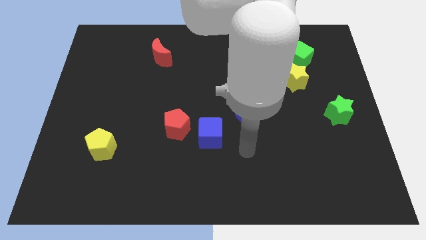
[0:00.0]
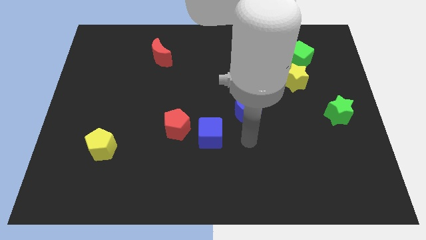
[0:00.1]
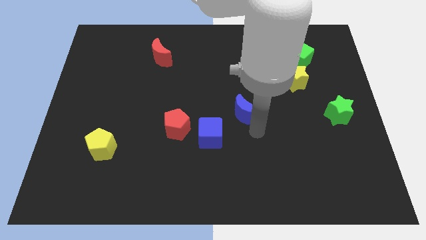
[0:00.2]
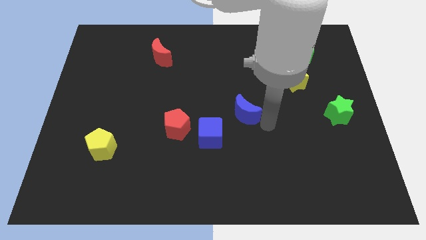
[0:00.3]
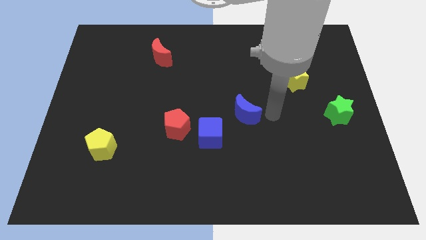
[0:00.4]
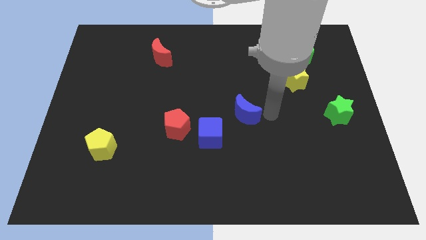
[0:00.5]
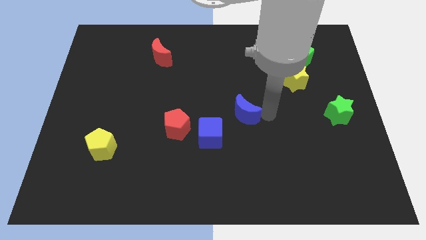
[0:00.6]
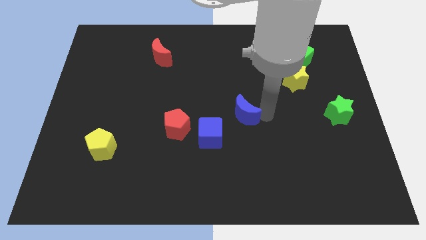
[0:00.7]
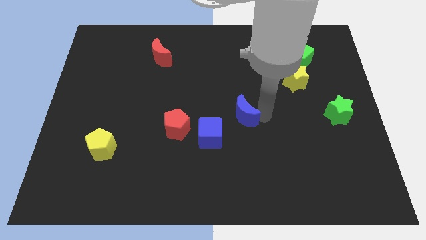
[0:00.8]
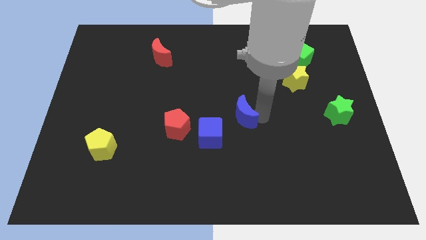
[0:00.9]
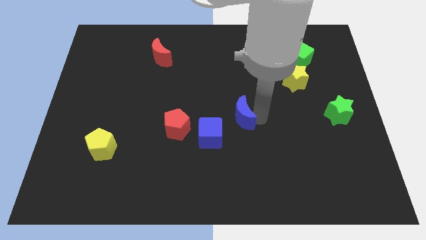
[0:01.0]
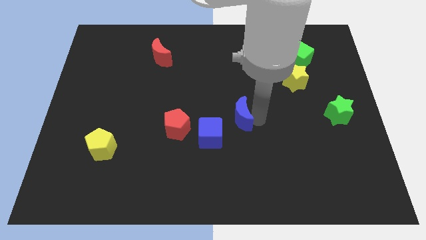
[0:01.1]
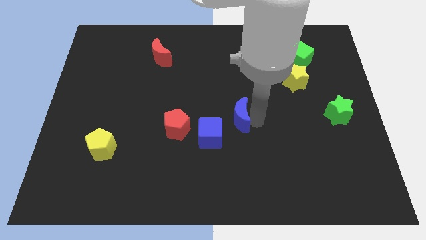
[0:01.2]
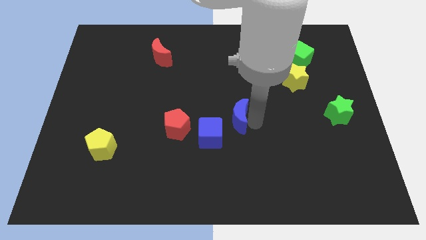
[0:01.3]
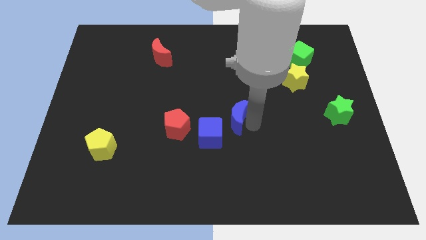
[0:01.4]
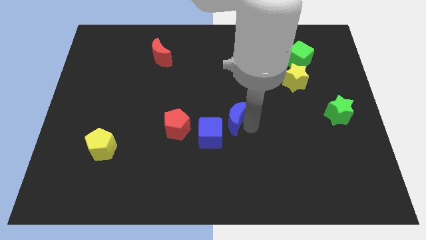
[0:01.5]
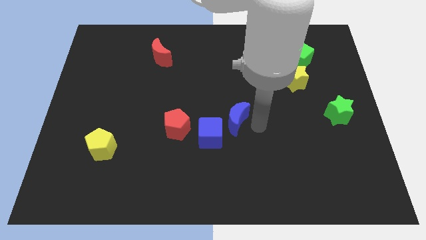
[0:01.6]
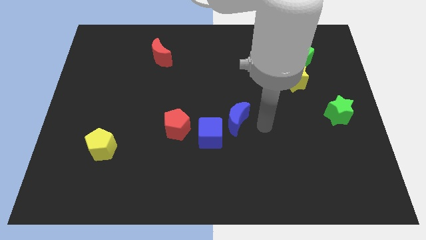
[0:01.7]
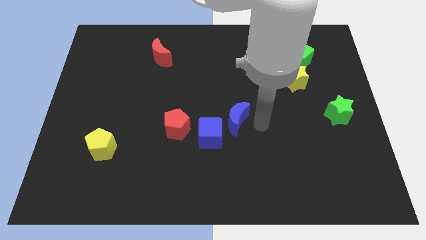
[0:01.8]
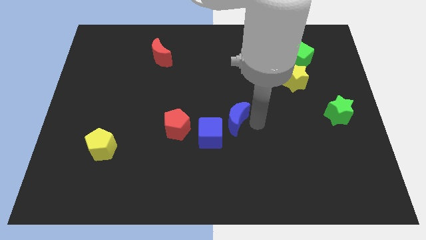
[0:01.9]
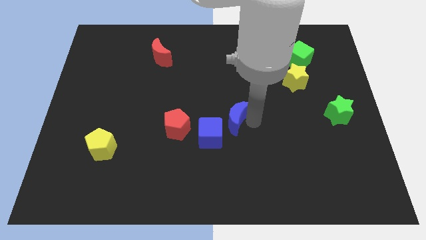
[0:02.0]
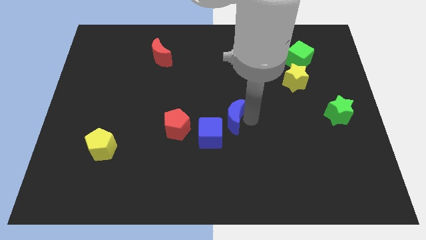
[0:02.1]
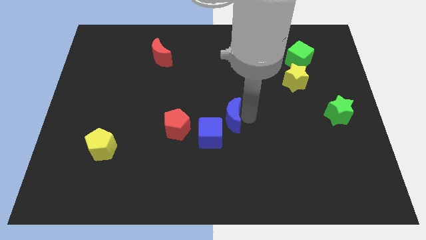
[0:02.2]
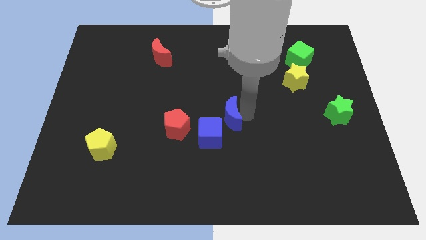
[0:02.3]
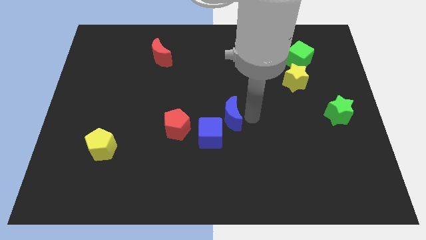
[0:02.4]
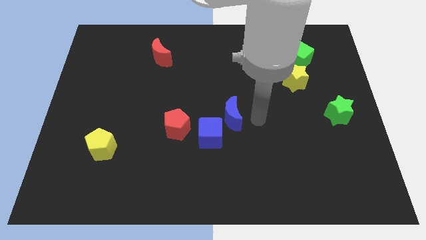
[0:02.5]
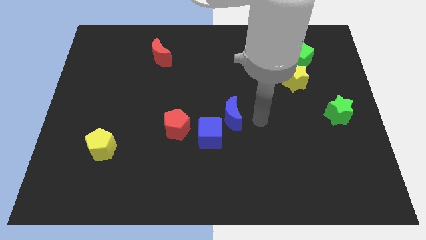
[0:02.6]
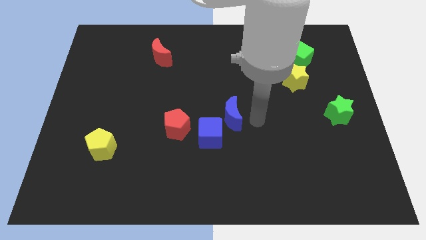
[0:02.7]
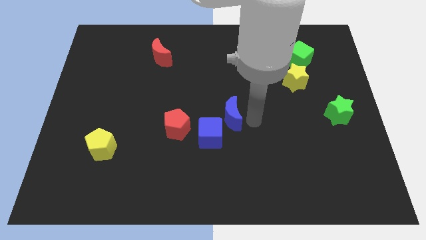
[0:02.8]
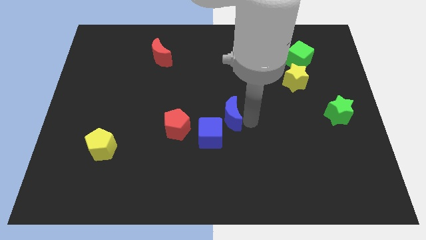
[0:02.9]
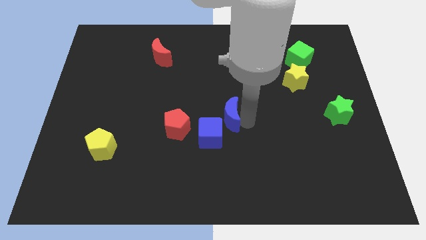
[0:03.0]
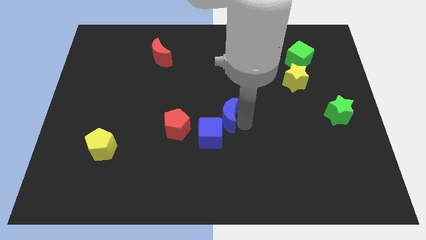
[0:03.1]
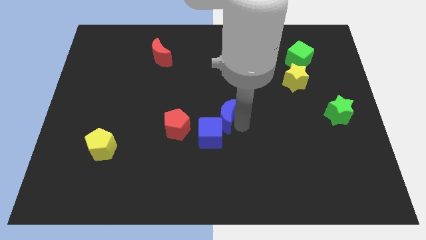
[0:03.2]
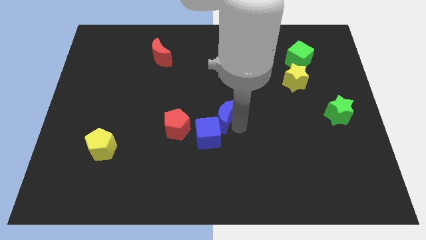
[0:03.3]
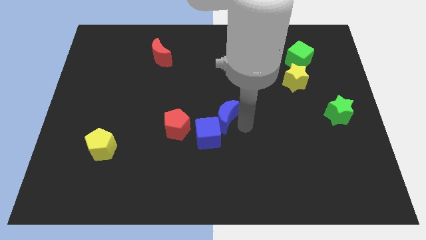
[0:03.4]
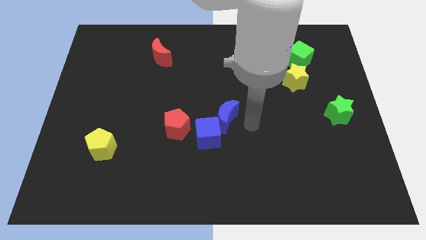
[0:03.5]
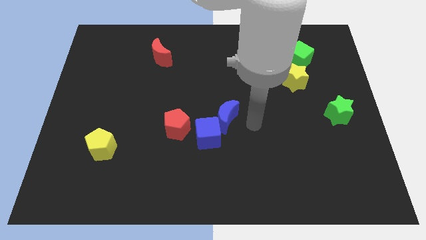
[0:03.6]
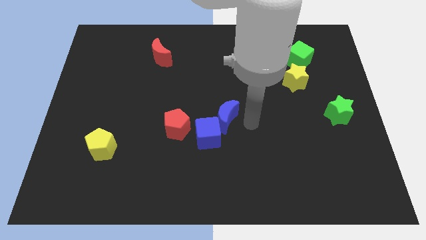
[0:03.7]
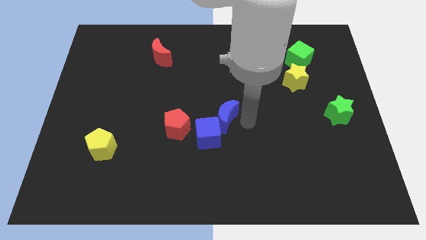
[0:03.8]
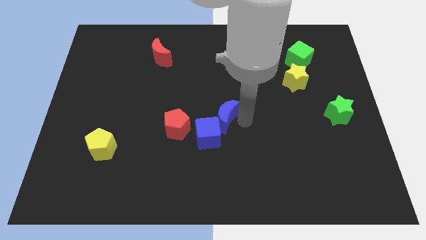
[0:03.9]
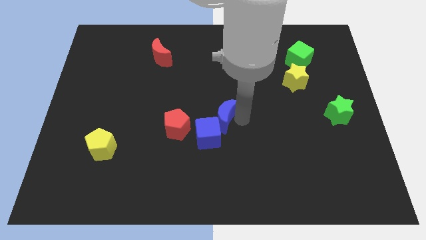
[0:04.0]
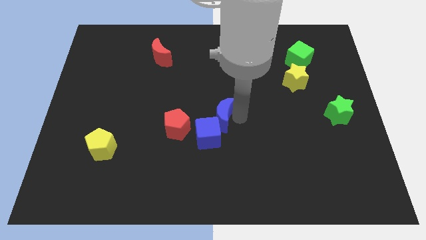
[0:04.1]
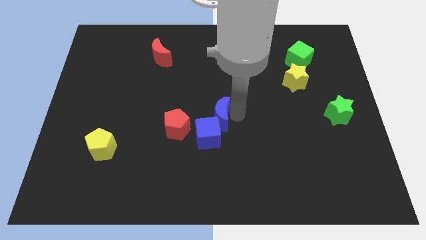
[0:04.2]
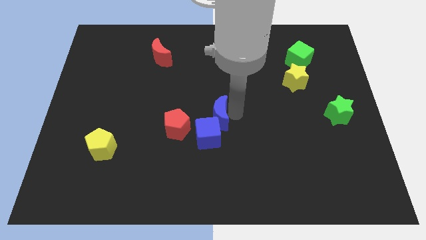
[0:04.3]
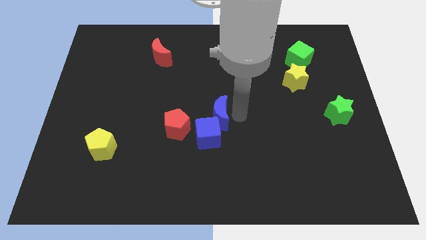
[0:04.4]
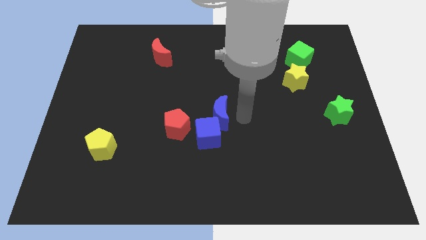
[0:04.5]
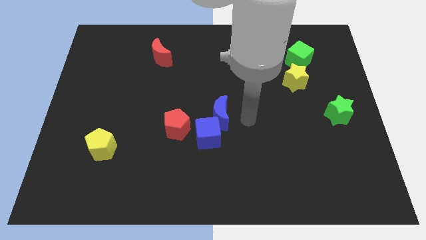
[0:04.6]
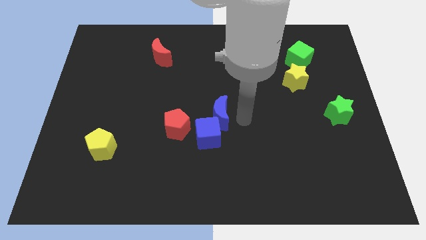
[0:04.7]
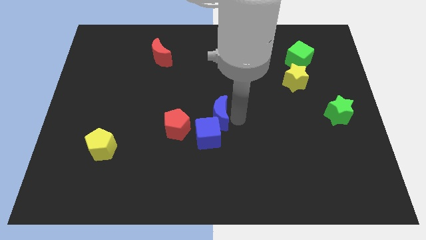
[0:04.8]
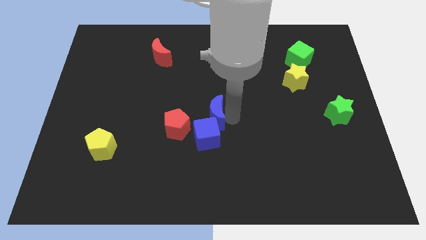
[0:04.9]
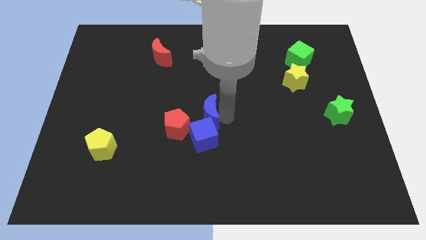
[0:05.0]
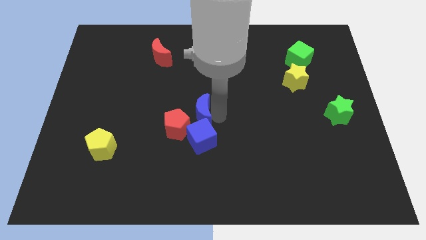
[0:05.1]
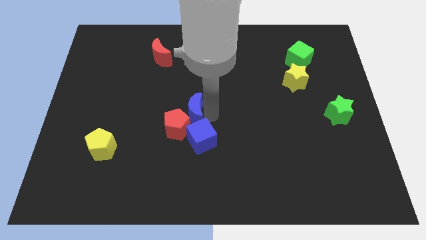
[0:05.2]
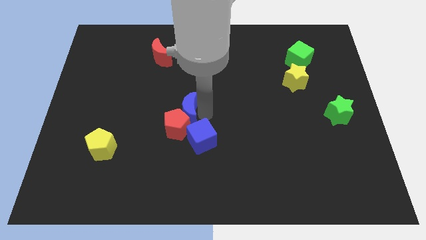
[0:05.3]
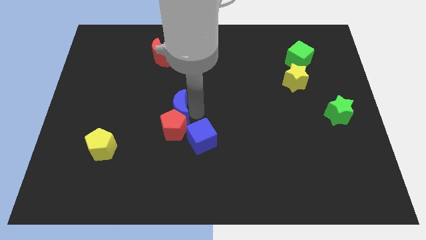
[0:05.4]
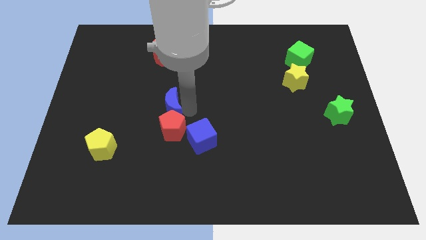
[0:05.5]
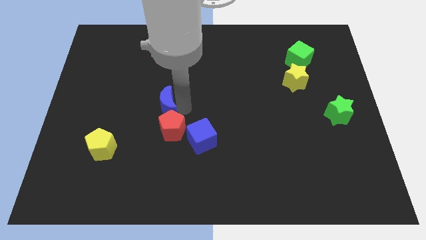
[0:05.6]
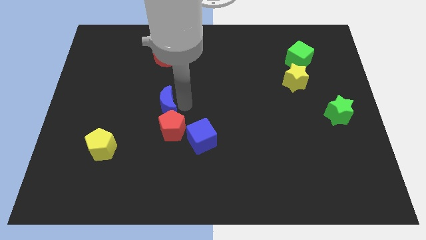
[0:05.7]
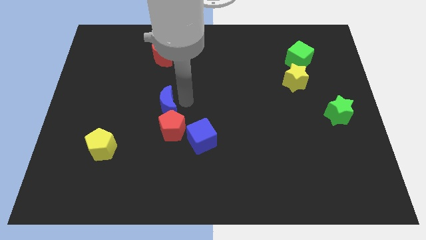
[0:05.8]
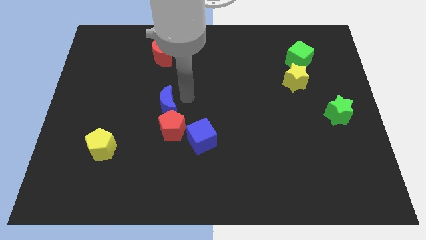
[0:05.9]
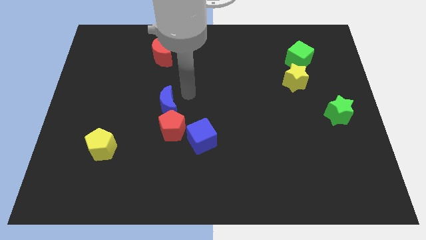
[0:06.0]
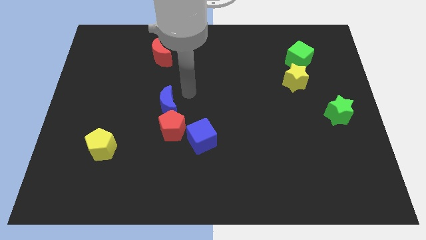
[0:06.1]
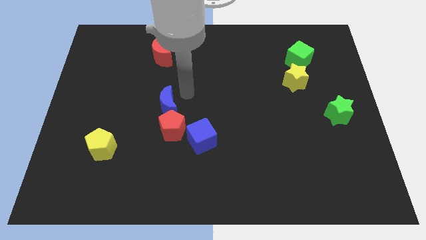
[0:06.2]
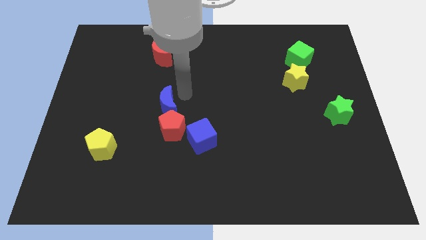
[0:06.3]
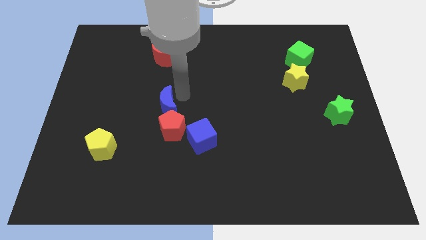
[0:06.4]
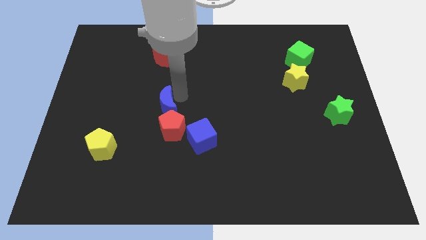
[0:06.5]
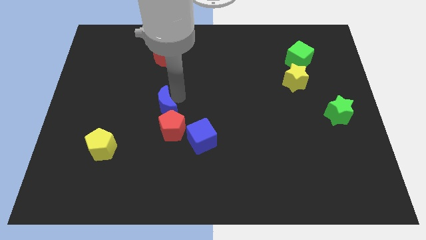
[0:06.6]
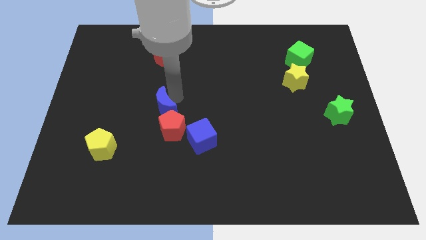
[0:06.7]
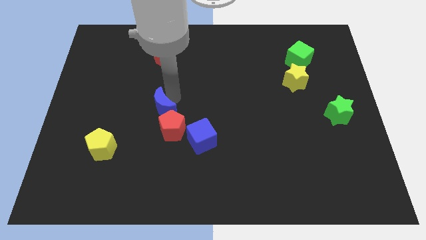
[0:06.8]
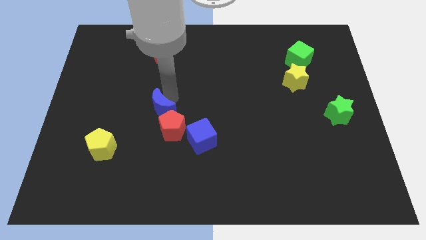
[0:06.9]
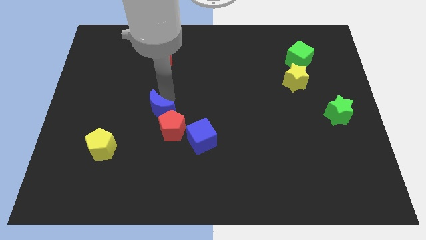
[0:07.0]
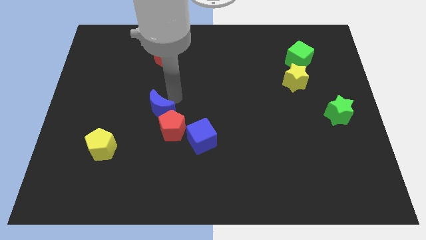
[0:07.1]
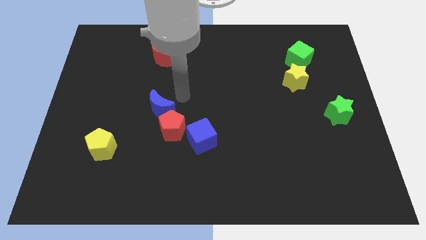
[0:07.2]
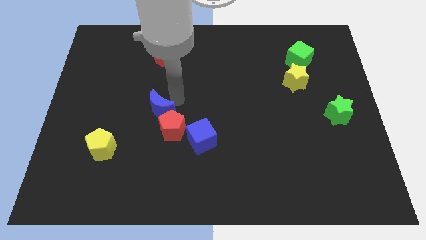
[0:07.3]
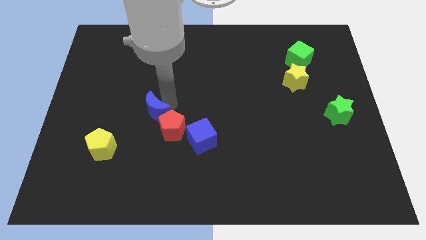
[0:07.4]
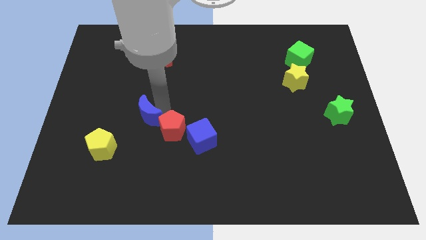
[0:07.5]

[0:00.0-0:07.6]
push the blue moon to the top right side of the yellow pentagon

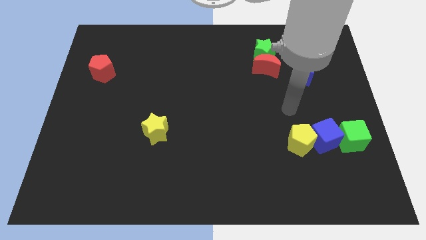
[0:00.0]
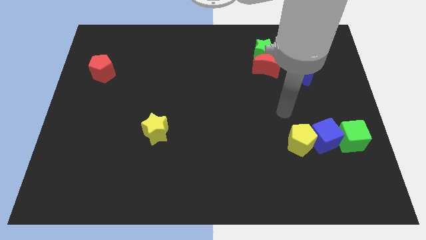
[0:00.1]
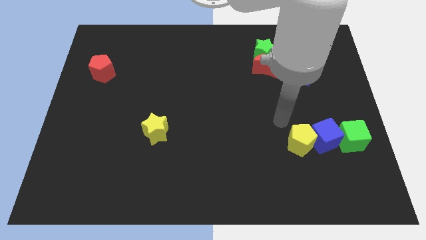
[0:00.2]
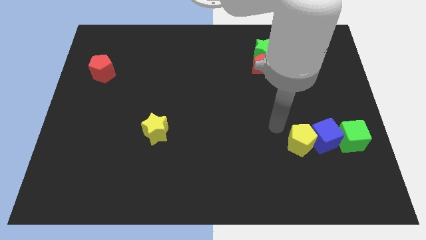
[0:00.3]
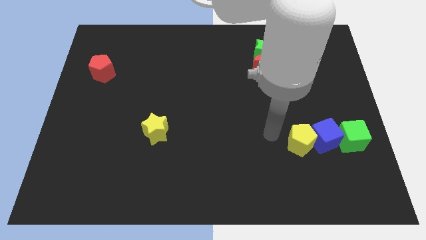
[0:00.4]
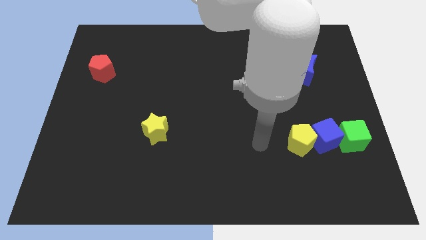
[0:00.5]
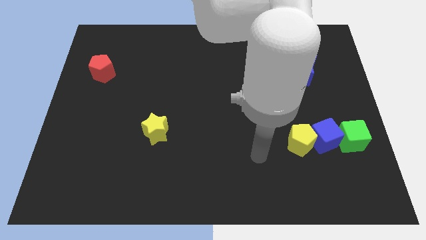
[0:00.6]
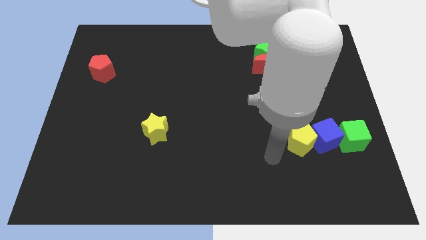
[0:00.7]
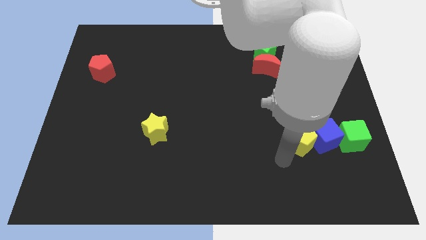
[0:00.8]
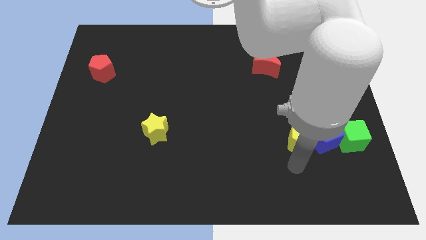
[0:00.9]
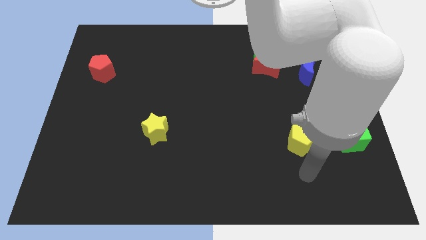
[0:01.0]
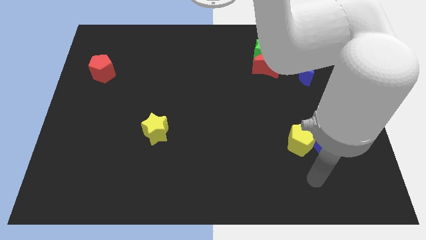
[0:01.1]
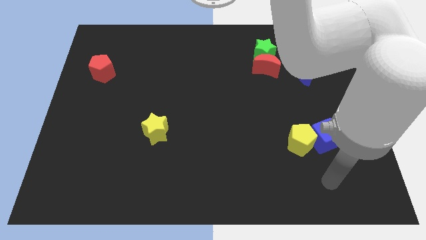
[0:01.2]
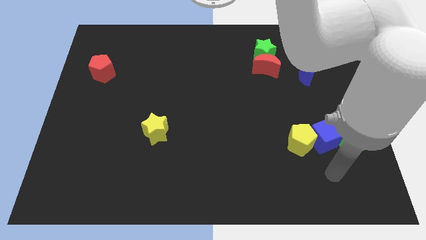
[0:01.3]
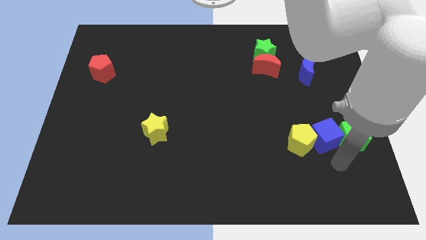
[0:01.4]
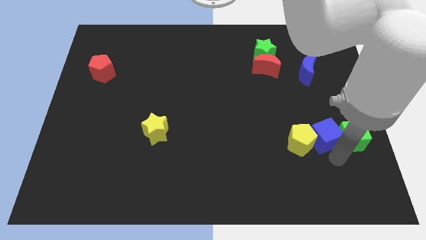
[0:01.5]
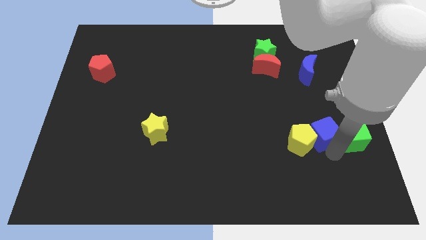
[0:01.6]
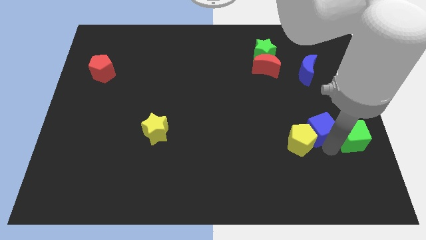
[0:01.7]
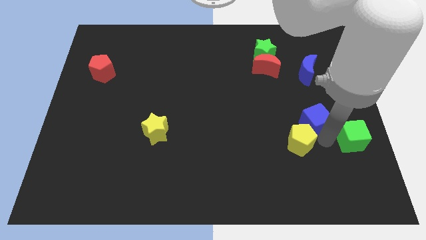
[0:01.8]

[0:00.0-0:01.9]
push the blue cube above the yellow pentagon
